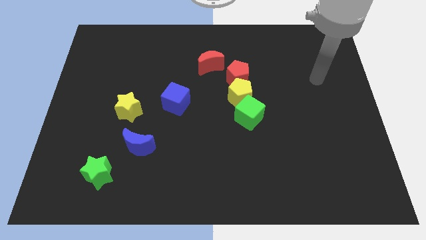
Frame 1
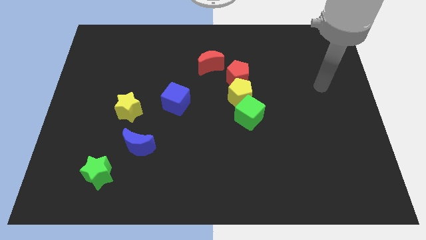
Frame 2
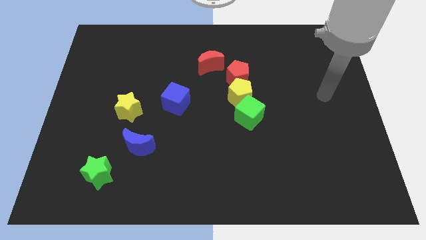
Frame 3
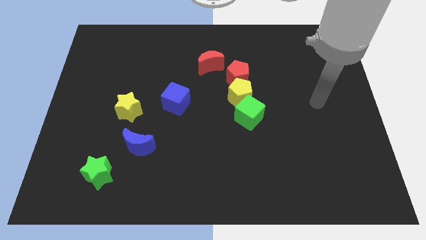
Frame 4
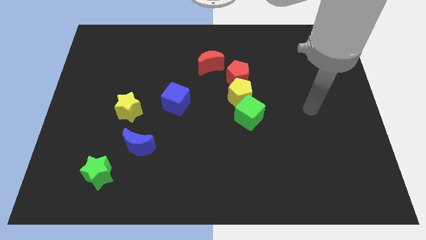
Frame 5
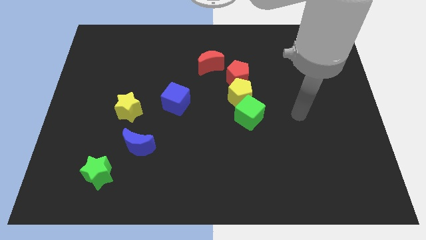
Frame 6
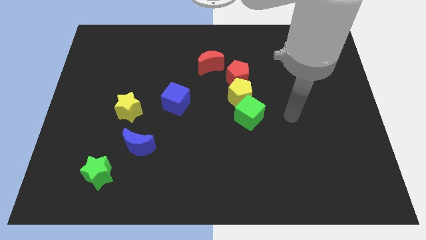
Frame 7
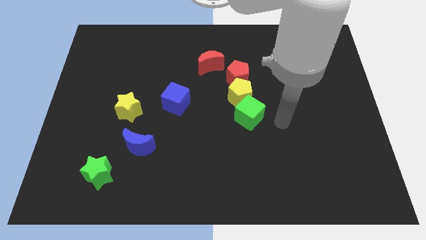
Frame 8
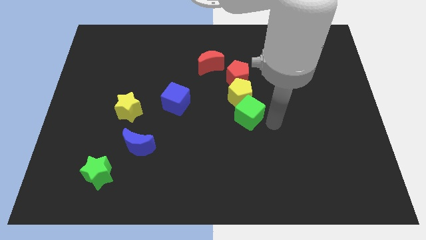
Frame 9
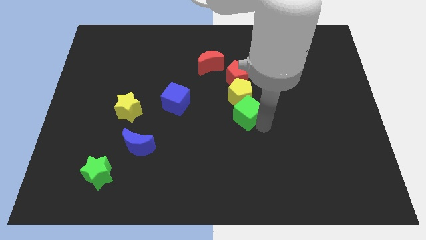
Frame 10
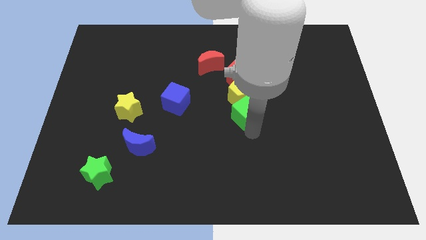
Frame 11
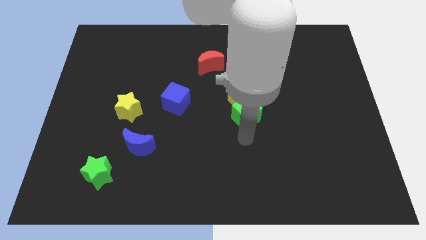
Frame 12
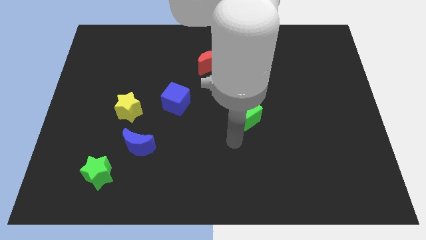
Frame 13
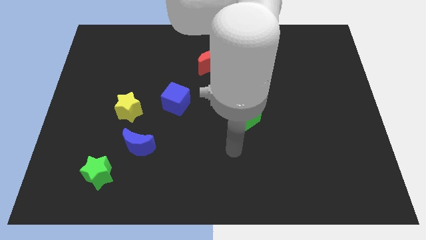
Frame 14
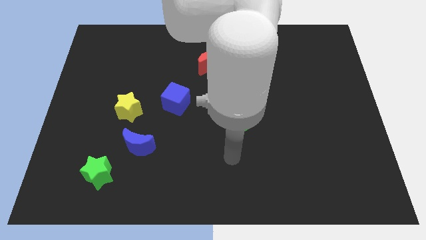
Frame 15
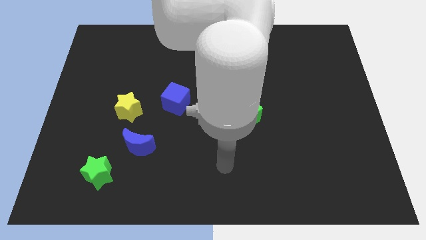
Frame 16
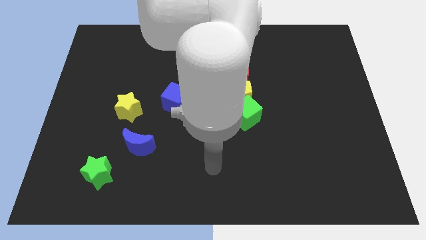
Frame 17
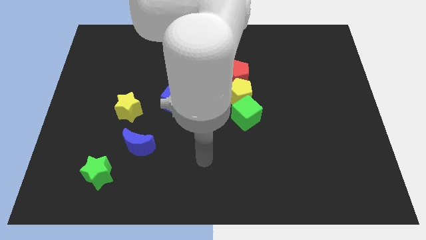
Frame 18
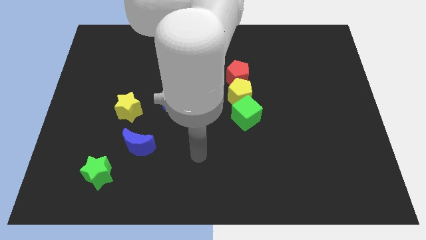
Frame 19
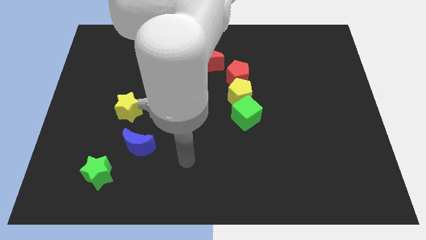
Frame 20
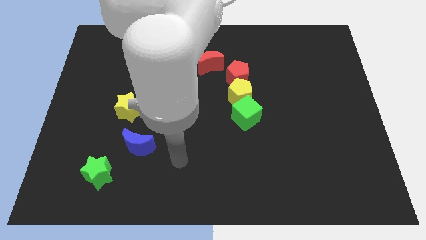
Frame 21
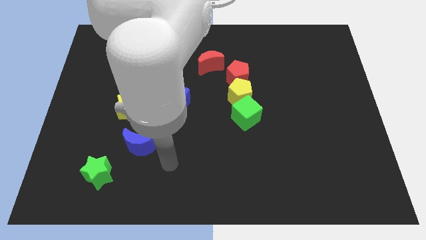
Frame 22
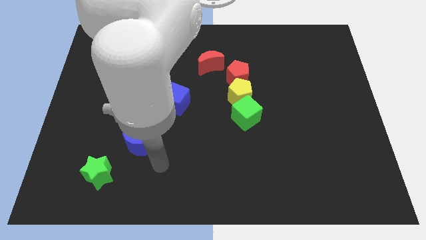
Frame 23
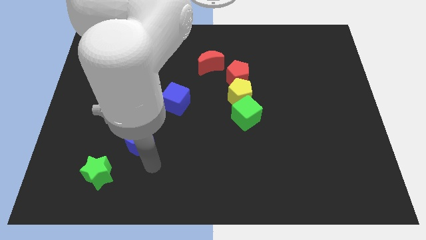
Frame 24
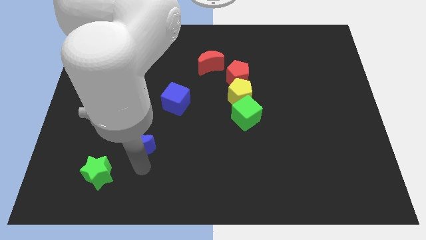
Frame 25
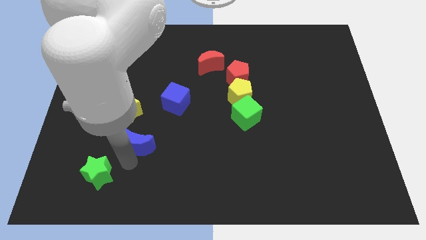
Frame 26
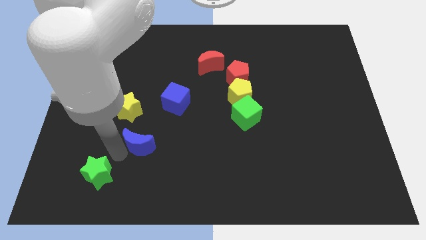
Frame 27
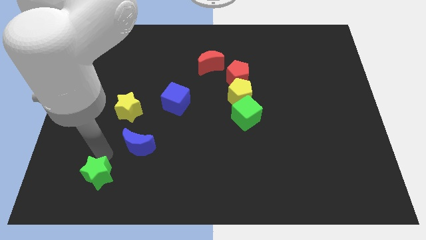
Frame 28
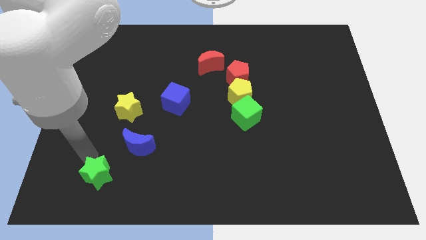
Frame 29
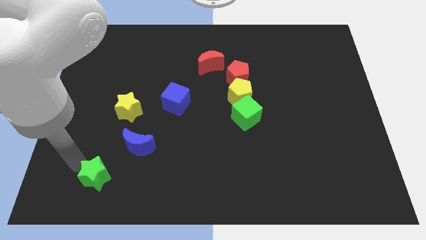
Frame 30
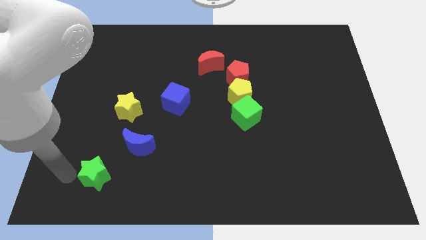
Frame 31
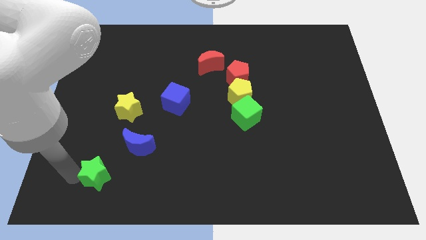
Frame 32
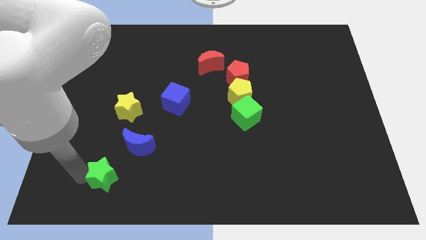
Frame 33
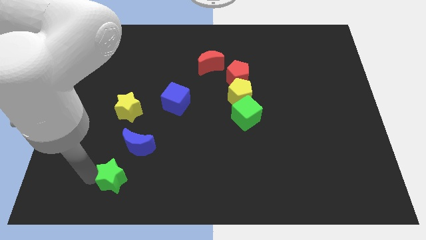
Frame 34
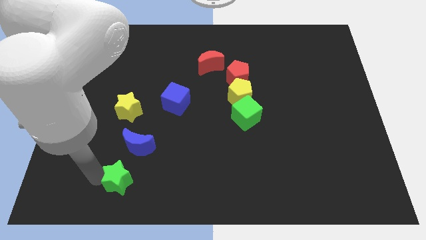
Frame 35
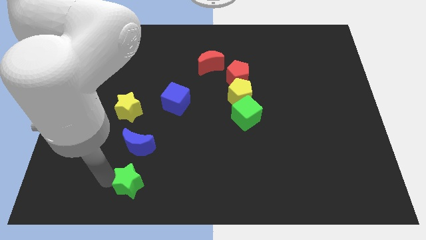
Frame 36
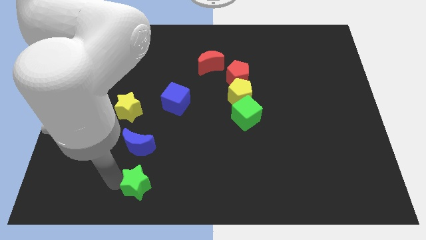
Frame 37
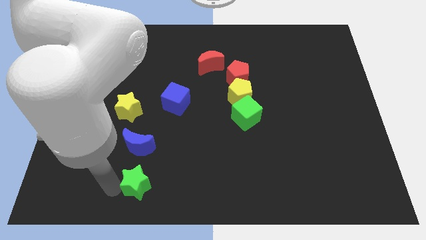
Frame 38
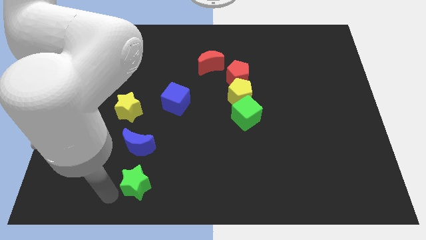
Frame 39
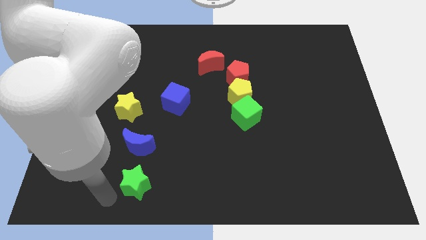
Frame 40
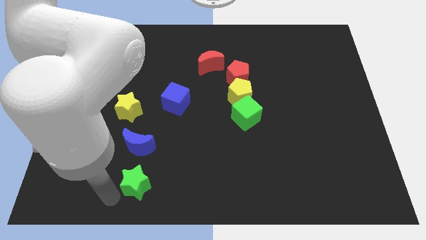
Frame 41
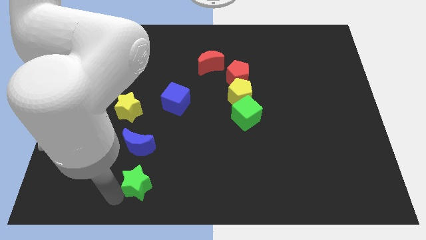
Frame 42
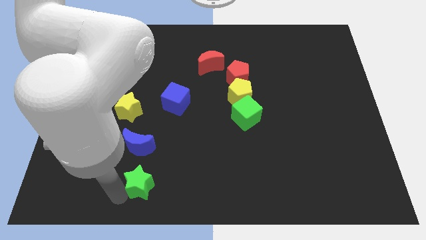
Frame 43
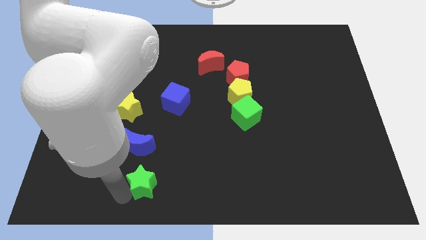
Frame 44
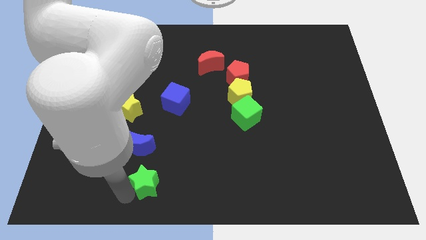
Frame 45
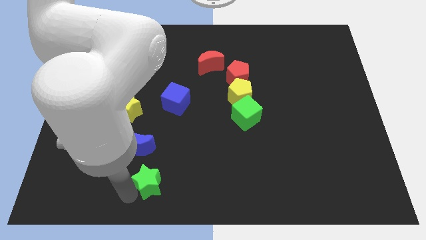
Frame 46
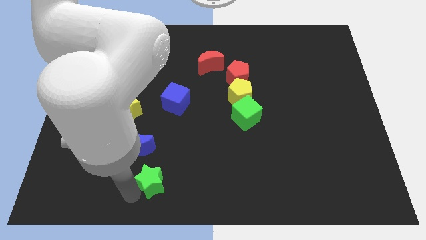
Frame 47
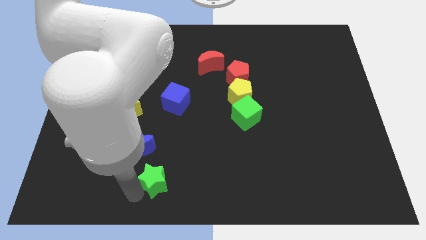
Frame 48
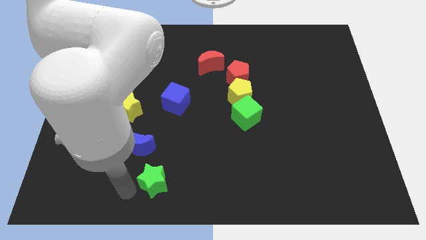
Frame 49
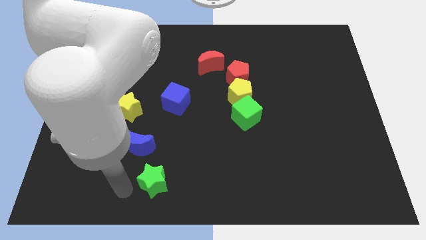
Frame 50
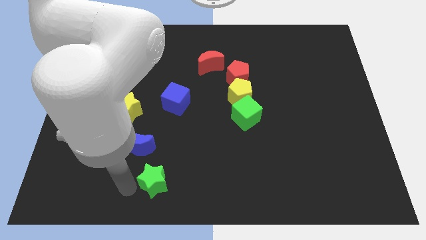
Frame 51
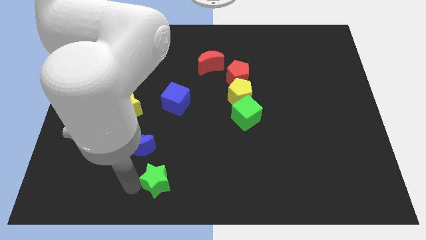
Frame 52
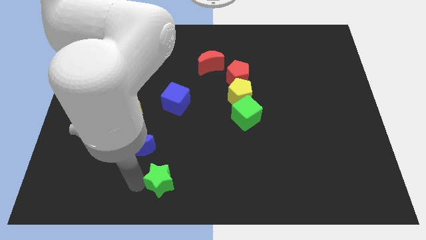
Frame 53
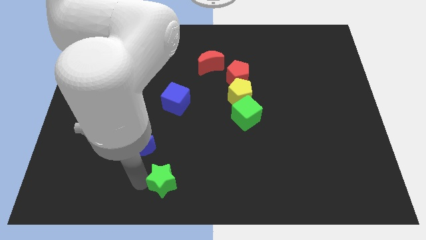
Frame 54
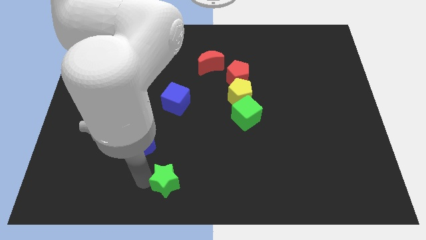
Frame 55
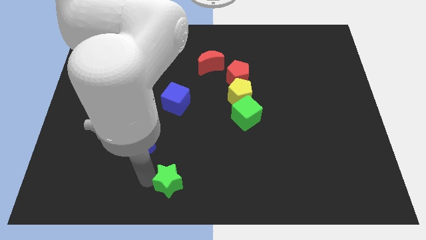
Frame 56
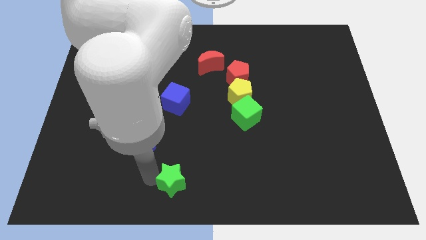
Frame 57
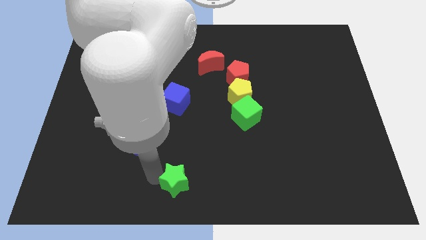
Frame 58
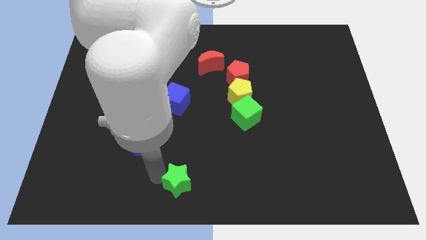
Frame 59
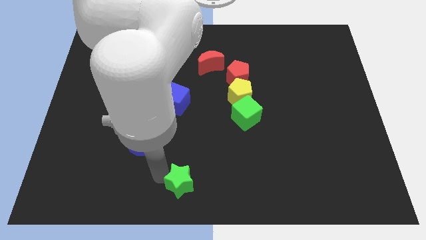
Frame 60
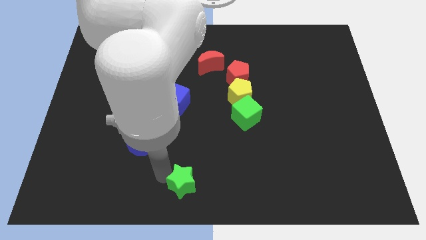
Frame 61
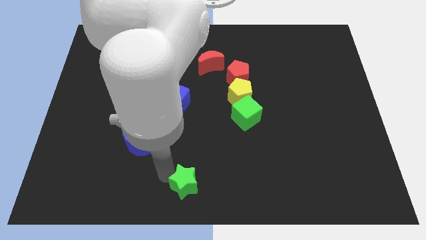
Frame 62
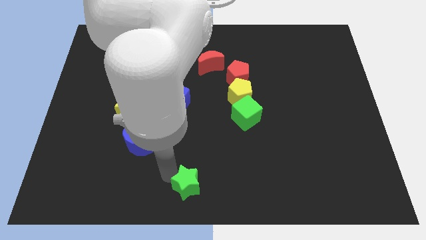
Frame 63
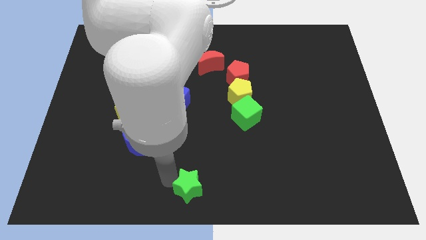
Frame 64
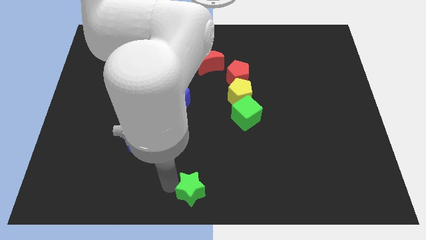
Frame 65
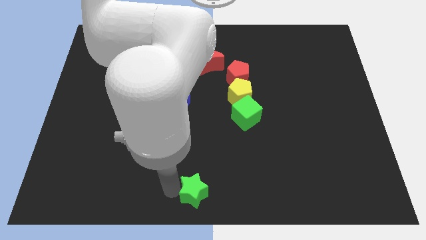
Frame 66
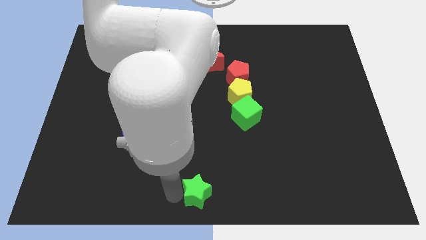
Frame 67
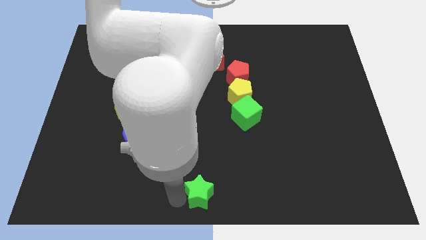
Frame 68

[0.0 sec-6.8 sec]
slide the green star right

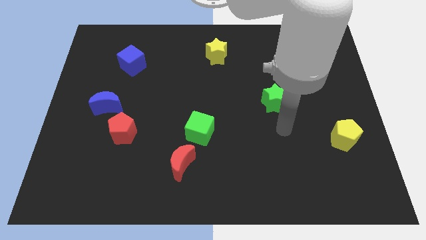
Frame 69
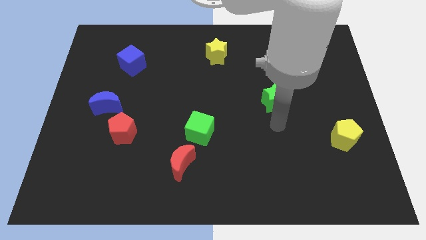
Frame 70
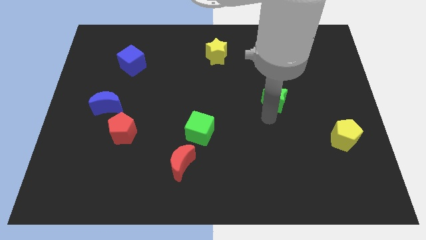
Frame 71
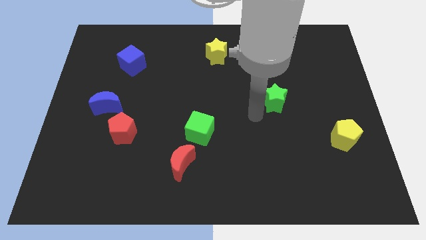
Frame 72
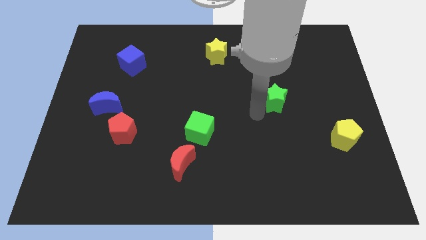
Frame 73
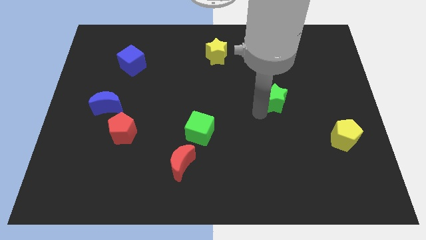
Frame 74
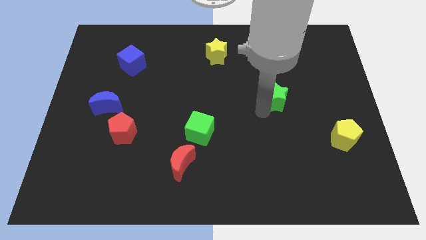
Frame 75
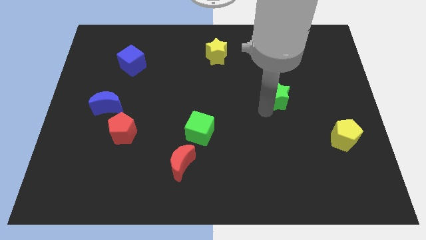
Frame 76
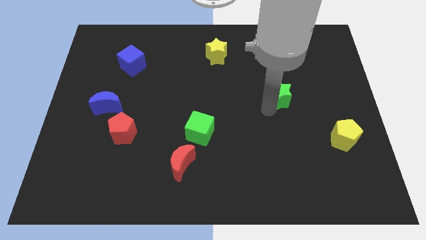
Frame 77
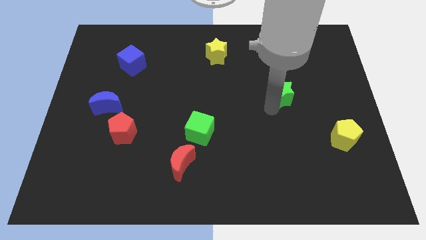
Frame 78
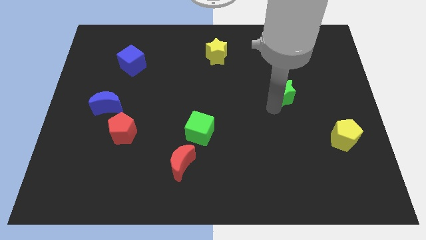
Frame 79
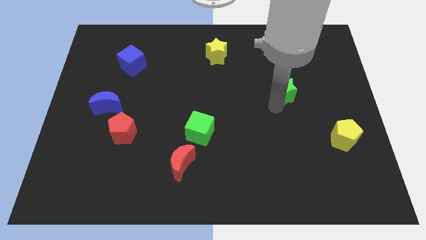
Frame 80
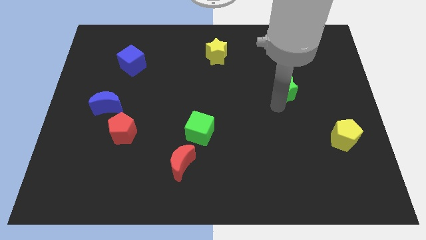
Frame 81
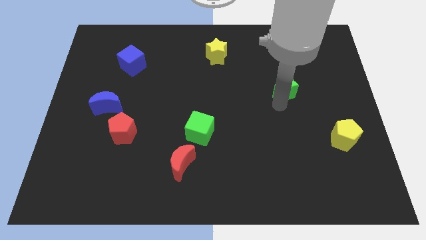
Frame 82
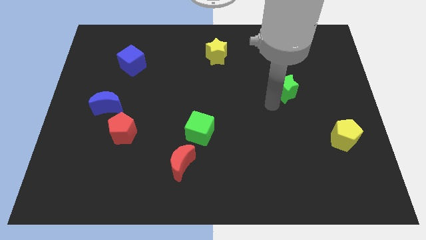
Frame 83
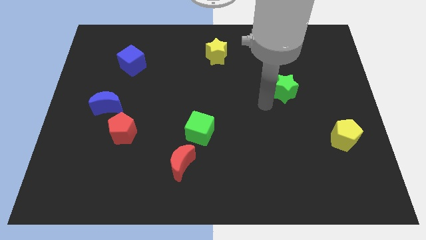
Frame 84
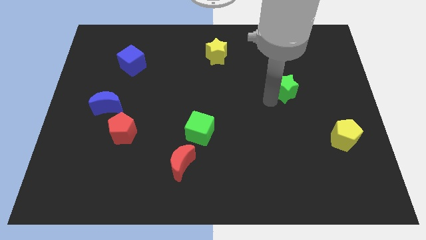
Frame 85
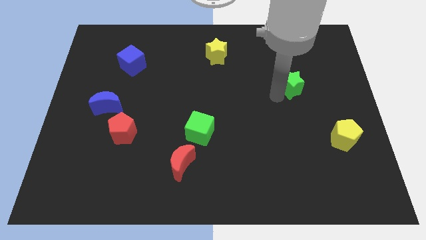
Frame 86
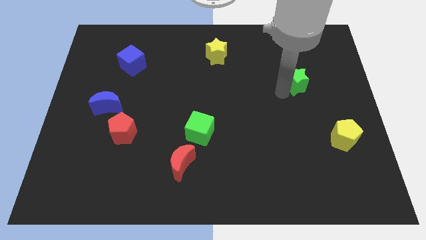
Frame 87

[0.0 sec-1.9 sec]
push the green star diagonally upwards and right a little
